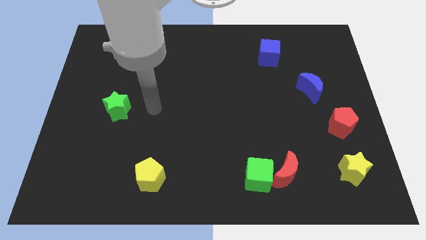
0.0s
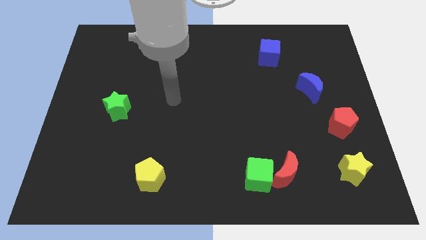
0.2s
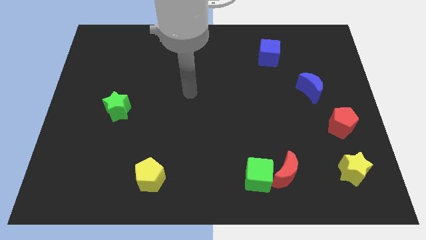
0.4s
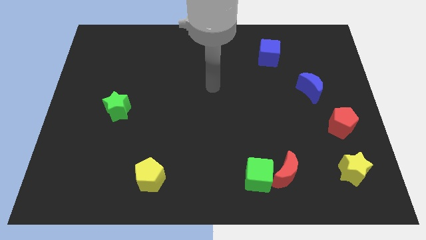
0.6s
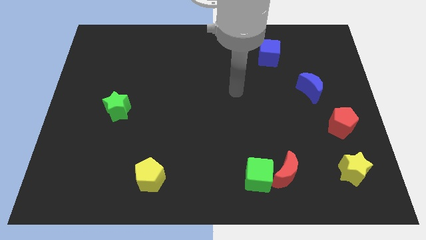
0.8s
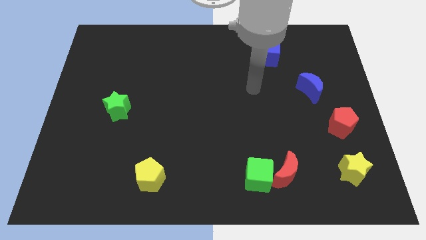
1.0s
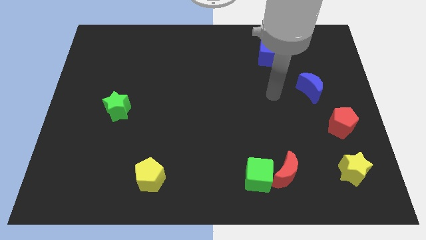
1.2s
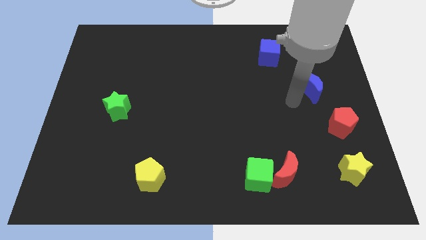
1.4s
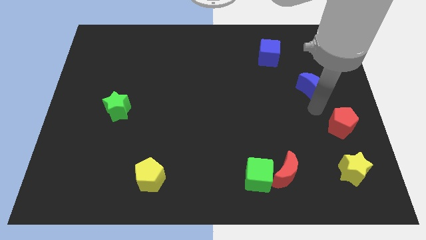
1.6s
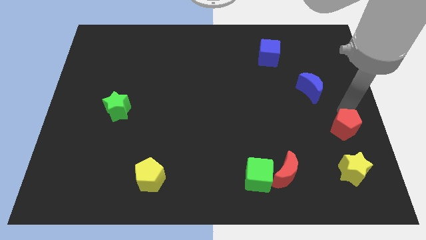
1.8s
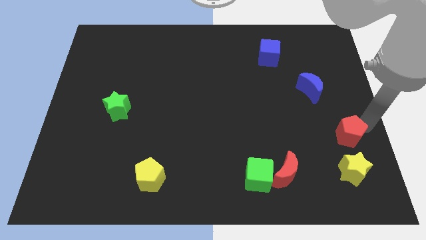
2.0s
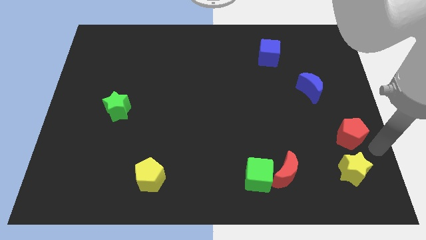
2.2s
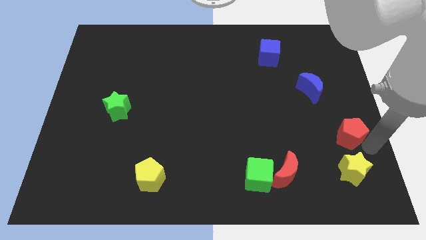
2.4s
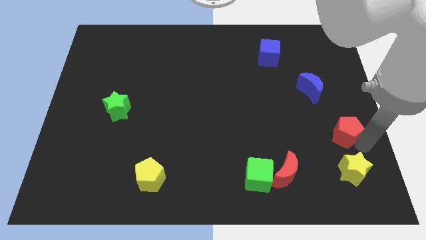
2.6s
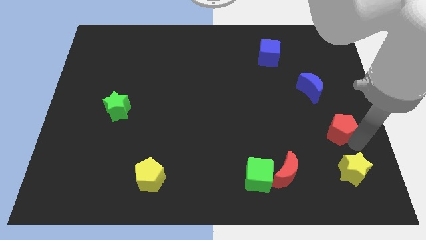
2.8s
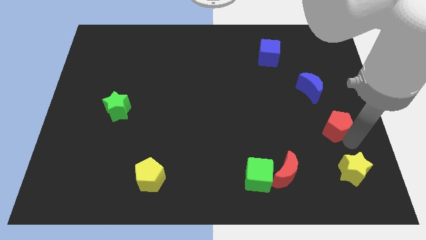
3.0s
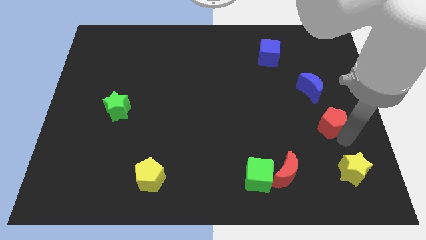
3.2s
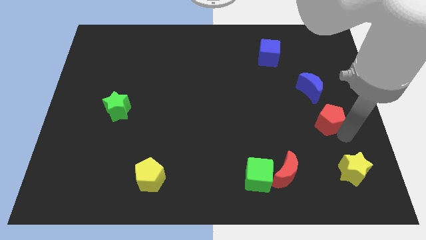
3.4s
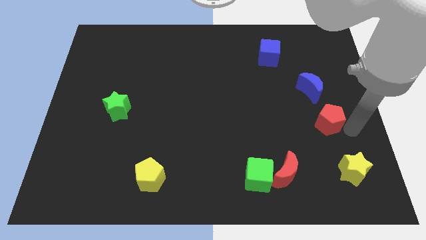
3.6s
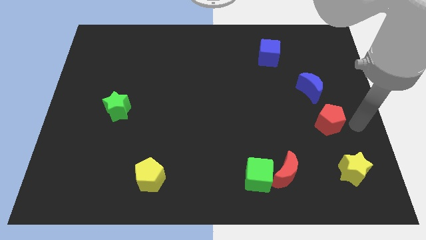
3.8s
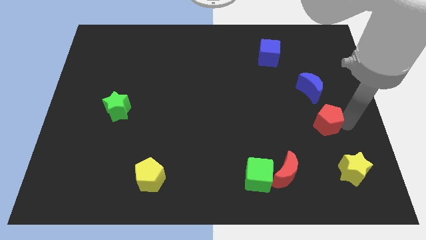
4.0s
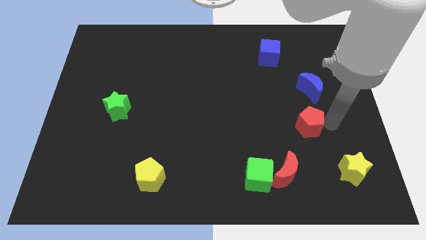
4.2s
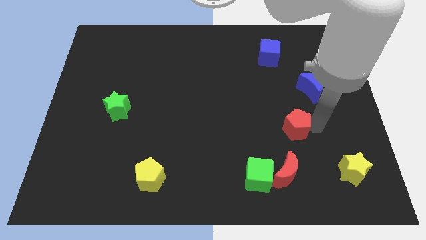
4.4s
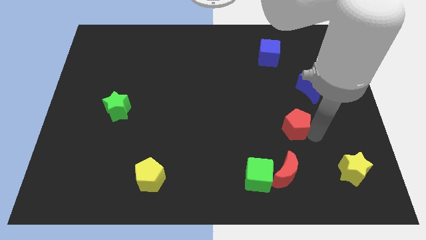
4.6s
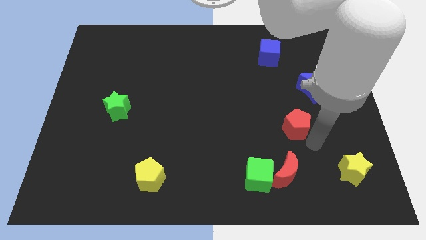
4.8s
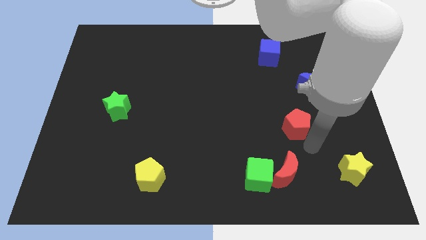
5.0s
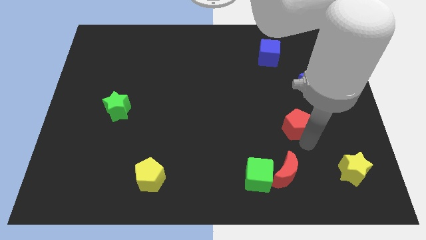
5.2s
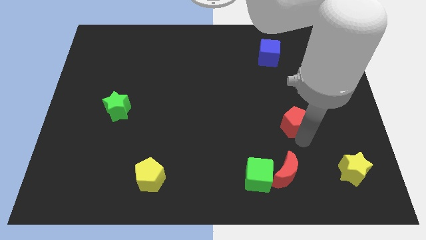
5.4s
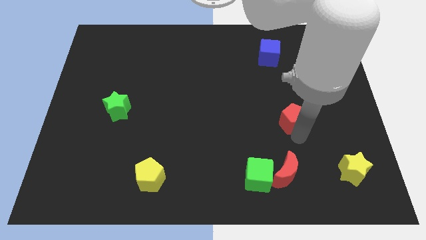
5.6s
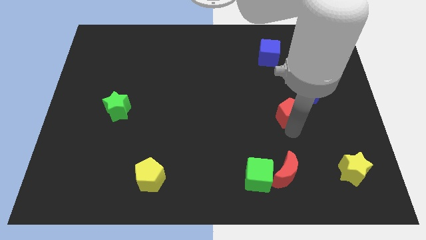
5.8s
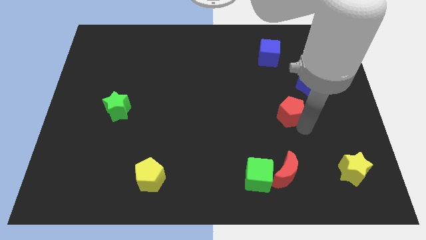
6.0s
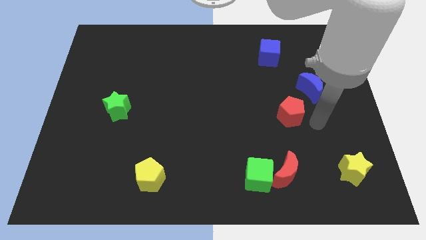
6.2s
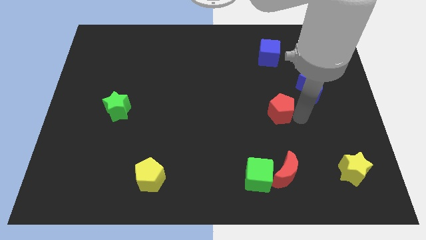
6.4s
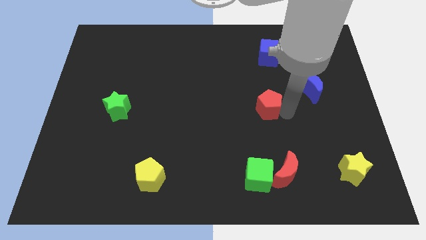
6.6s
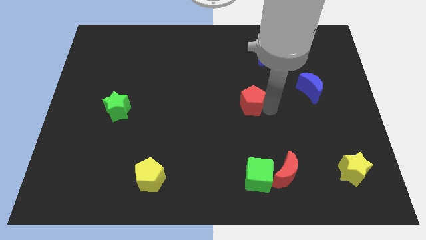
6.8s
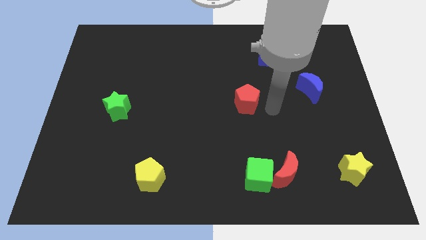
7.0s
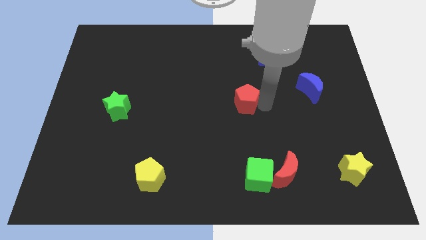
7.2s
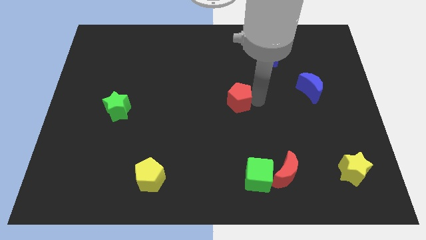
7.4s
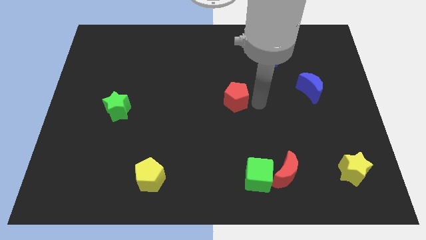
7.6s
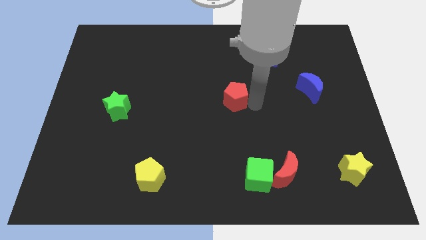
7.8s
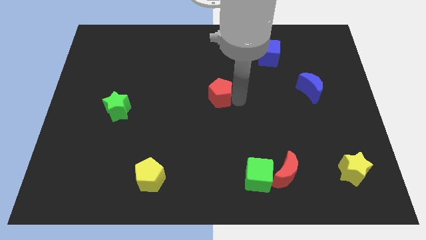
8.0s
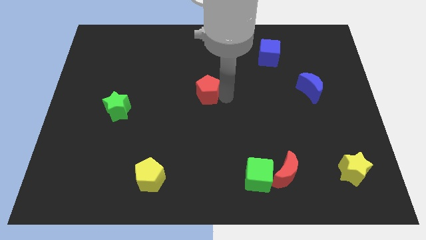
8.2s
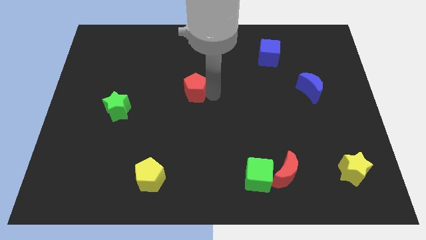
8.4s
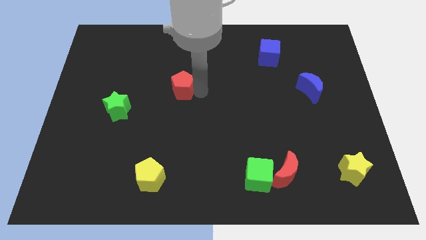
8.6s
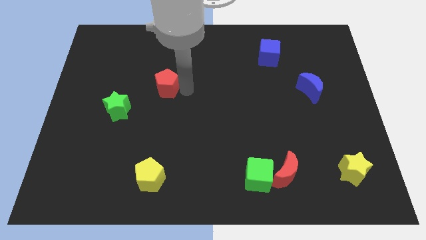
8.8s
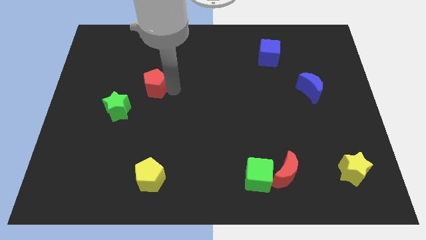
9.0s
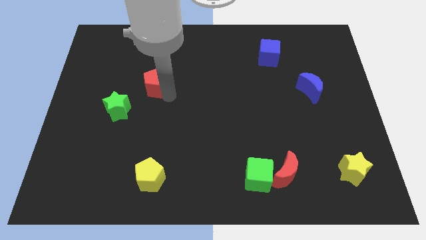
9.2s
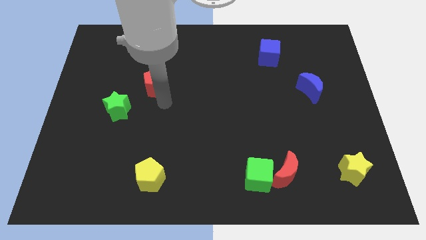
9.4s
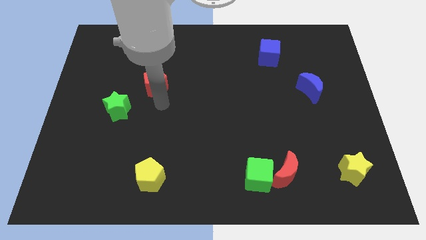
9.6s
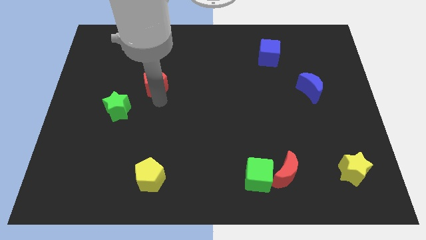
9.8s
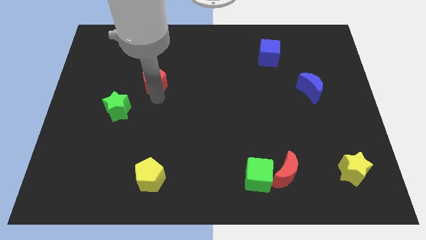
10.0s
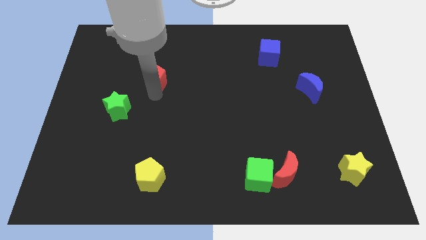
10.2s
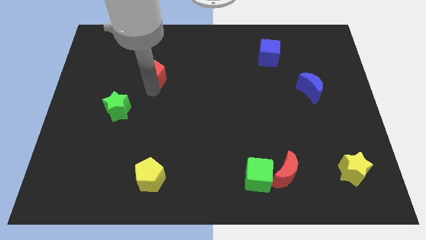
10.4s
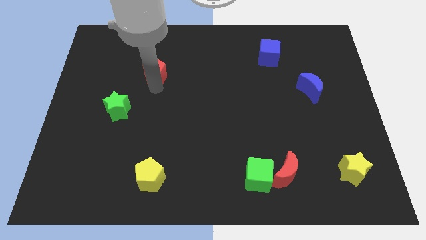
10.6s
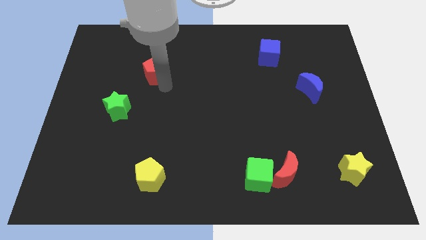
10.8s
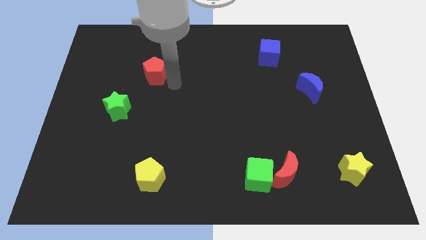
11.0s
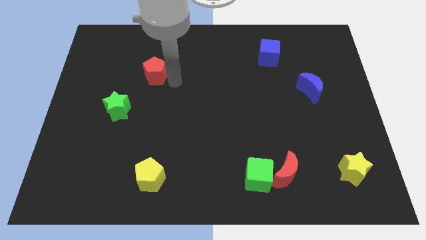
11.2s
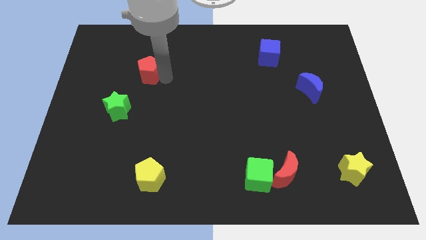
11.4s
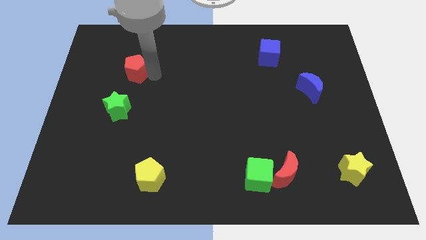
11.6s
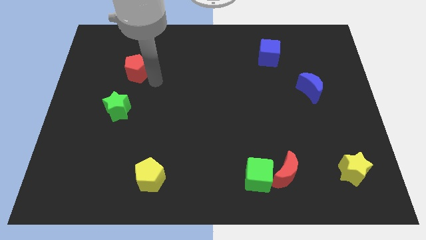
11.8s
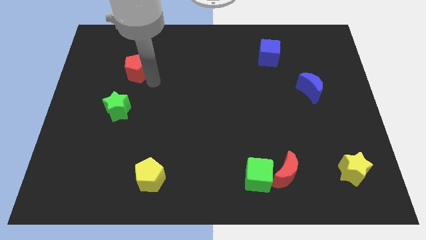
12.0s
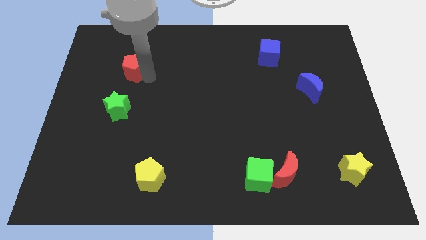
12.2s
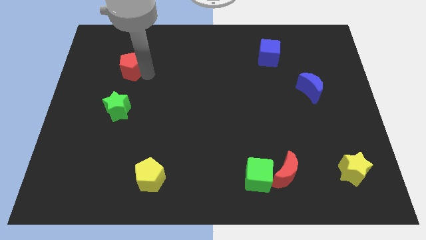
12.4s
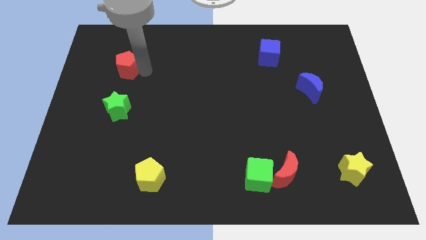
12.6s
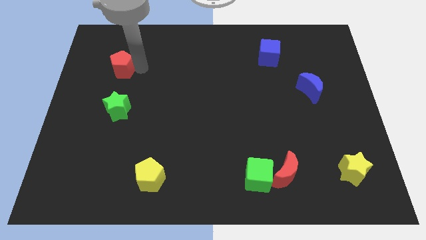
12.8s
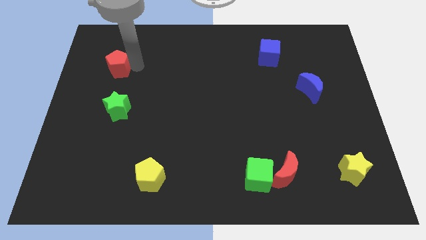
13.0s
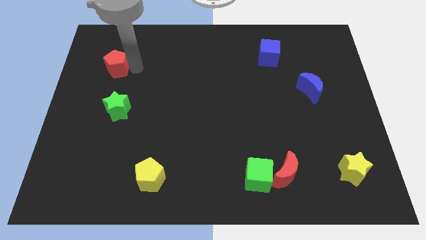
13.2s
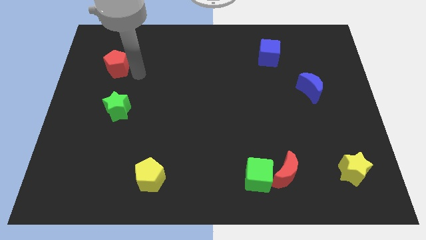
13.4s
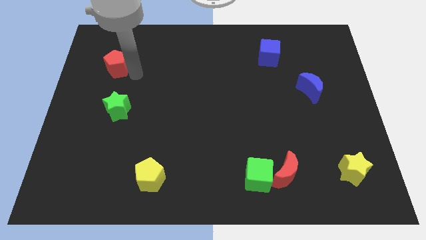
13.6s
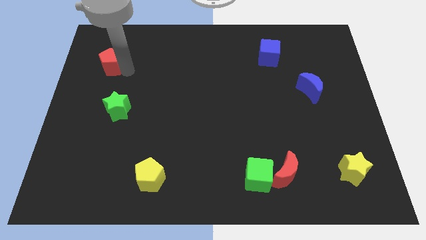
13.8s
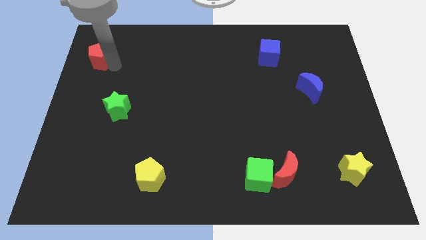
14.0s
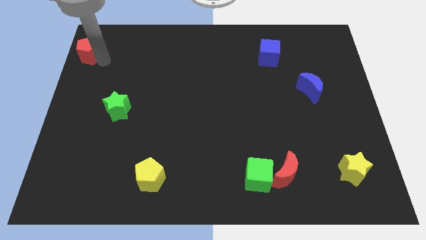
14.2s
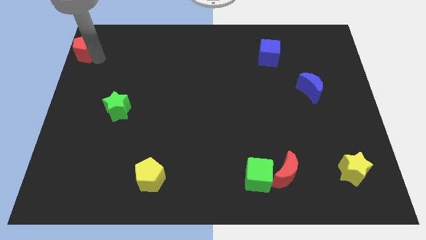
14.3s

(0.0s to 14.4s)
push the red pentagon to the top left of the board
